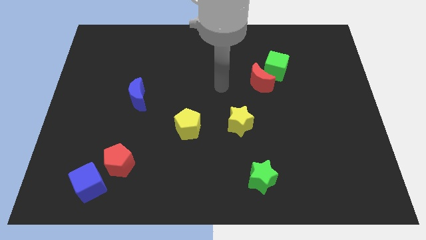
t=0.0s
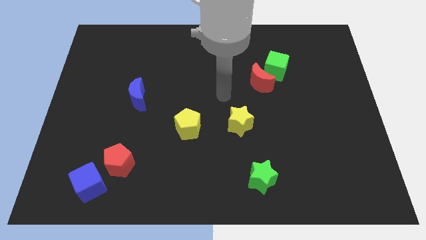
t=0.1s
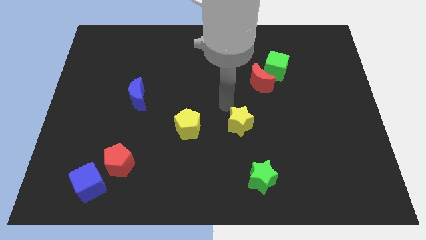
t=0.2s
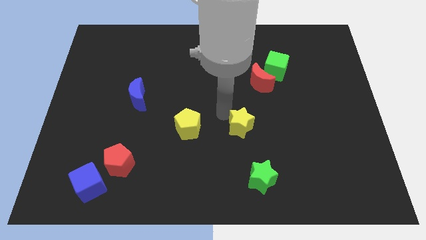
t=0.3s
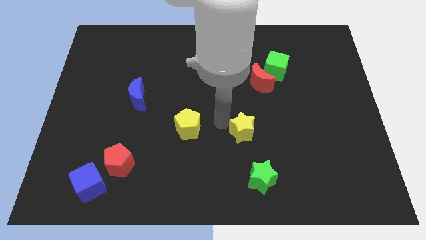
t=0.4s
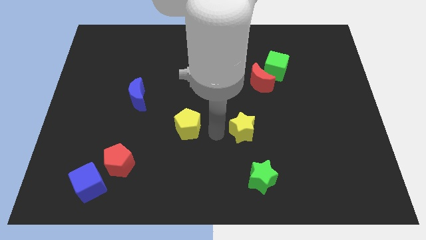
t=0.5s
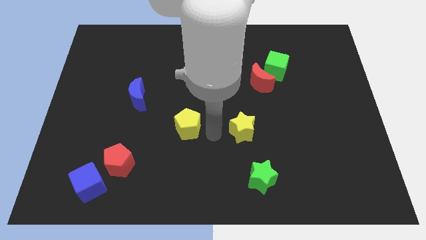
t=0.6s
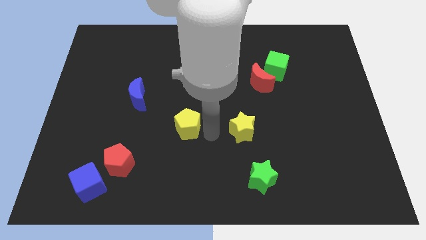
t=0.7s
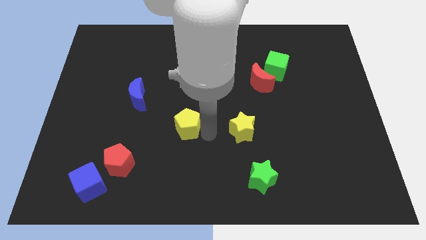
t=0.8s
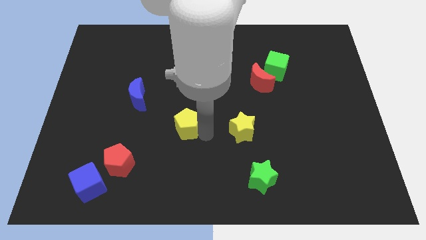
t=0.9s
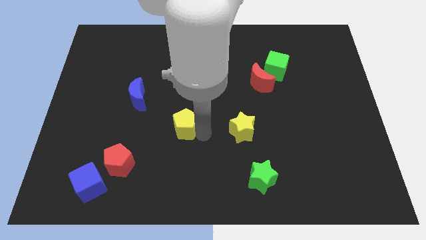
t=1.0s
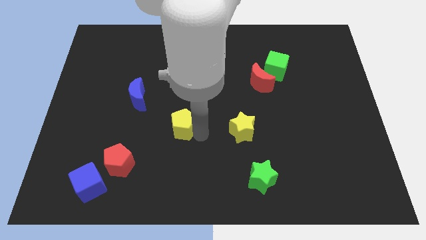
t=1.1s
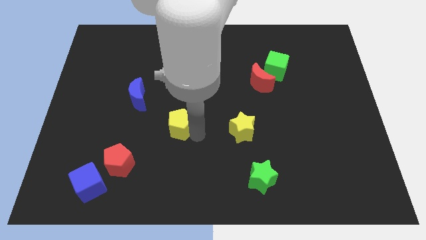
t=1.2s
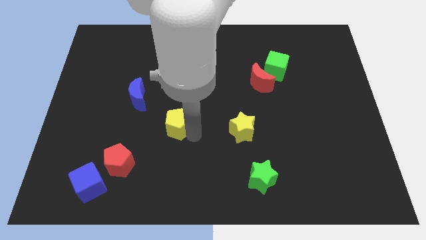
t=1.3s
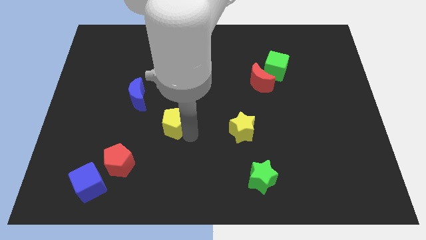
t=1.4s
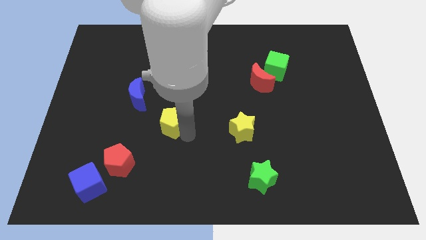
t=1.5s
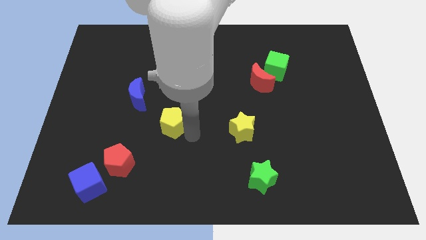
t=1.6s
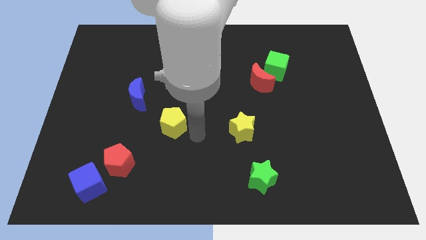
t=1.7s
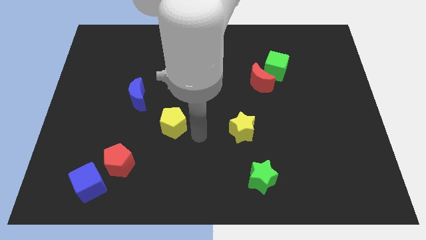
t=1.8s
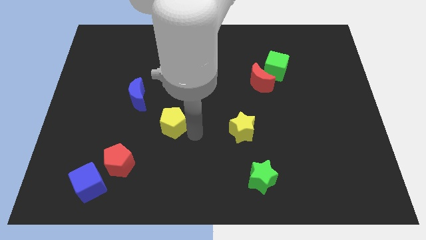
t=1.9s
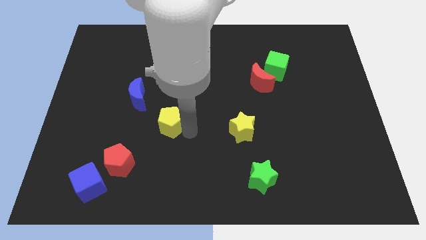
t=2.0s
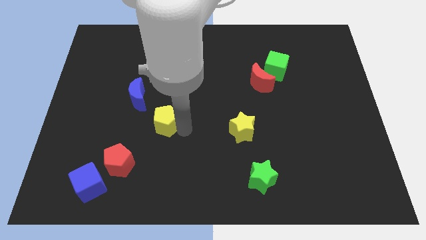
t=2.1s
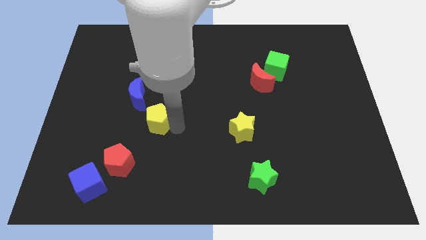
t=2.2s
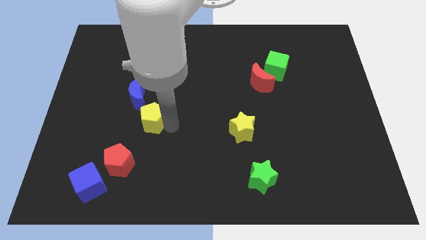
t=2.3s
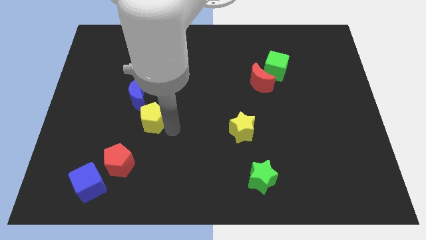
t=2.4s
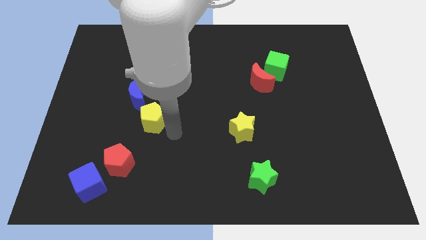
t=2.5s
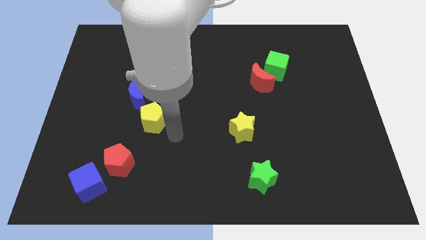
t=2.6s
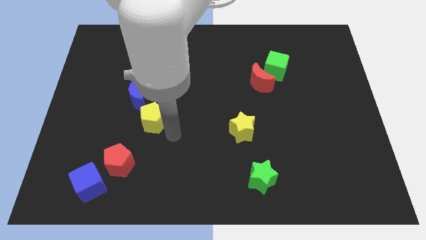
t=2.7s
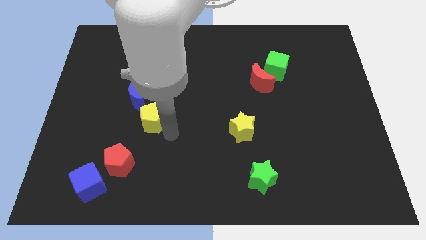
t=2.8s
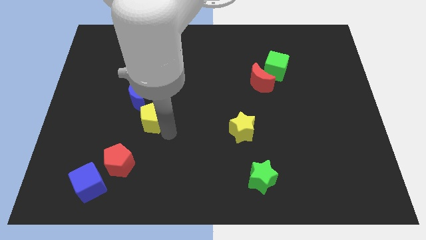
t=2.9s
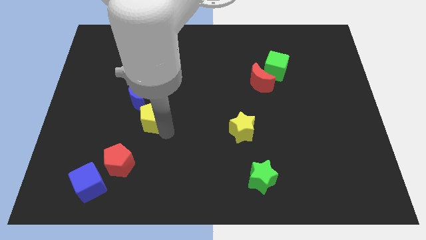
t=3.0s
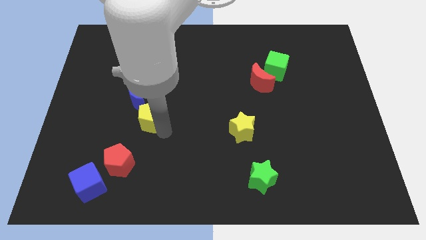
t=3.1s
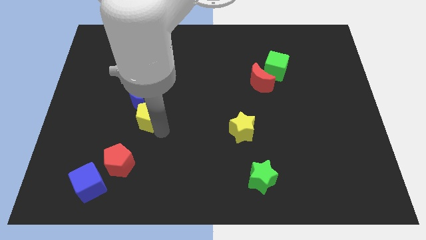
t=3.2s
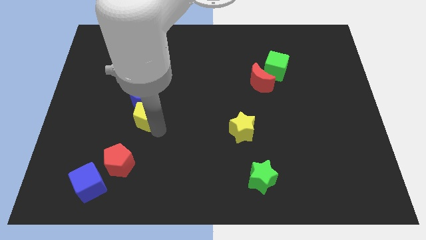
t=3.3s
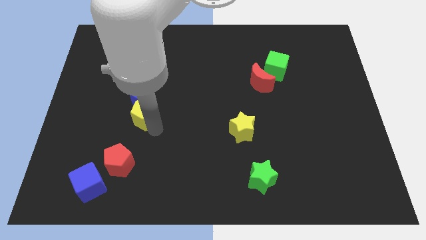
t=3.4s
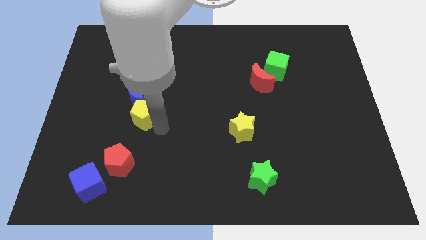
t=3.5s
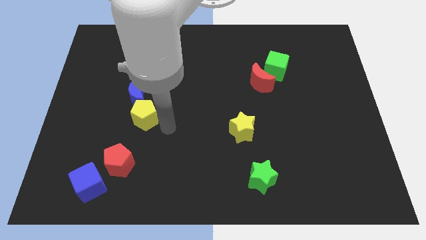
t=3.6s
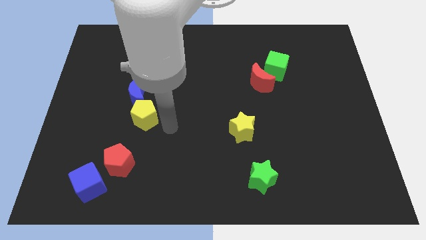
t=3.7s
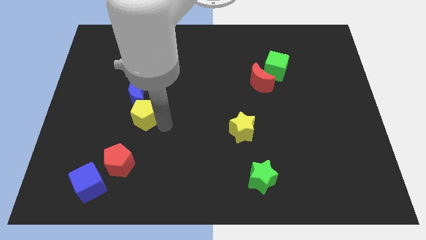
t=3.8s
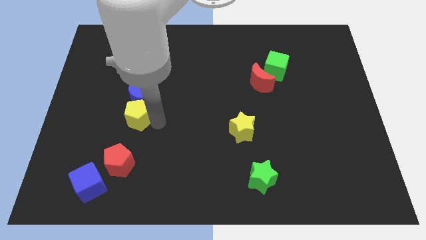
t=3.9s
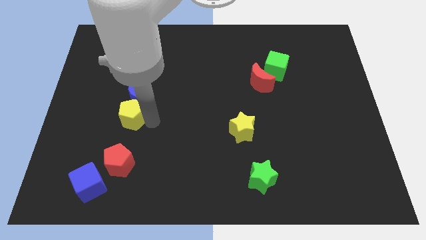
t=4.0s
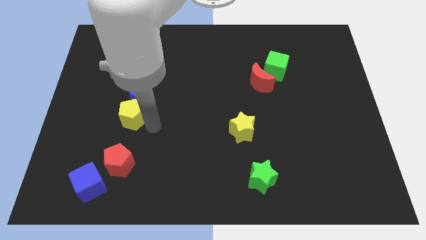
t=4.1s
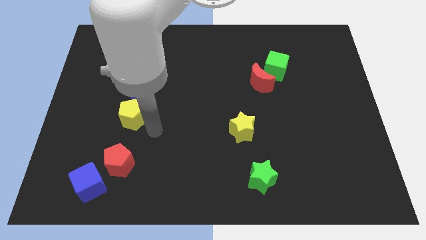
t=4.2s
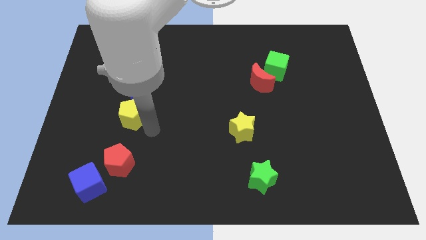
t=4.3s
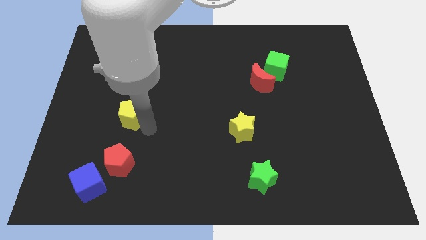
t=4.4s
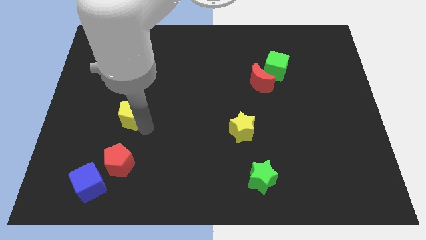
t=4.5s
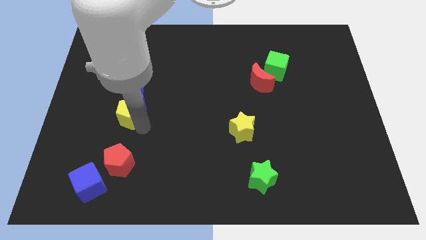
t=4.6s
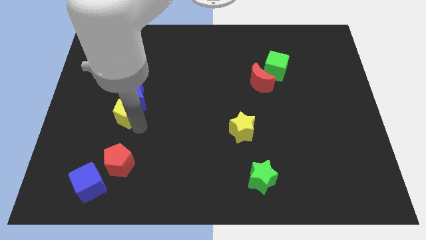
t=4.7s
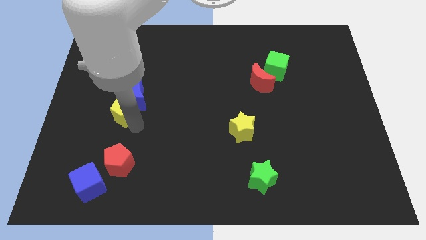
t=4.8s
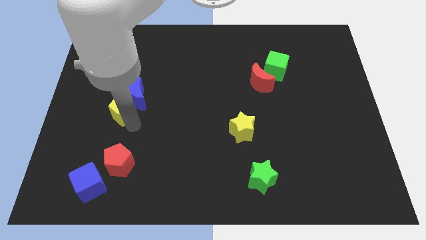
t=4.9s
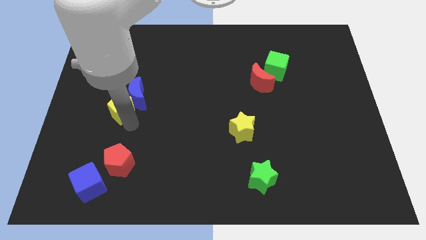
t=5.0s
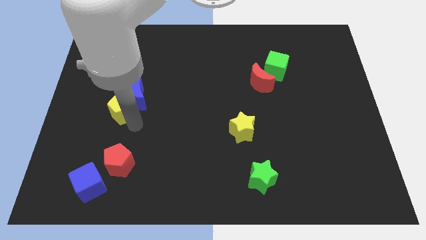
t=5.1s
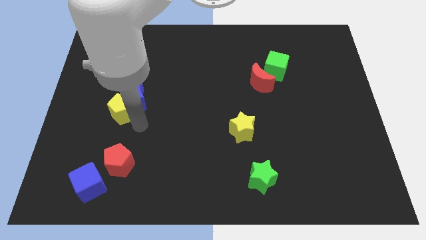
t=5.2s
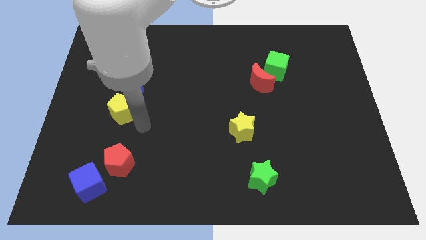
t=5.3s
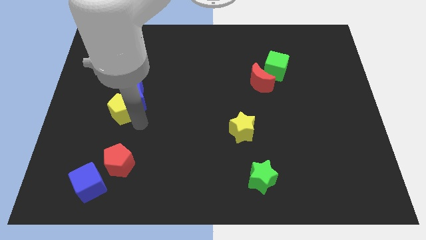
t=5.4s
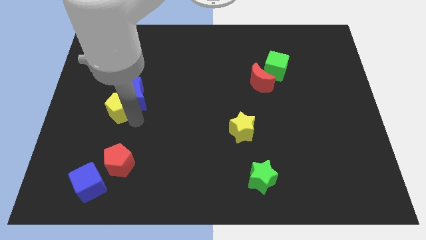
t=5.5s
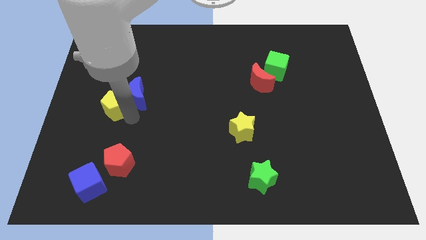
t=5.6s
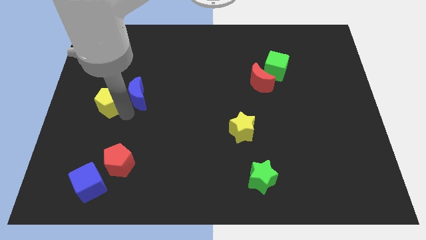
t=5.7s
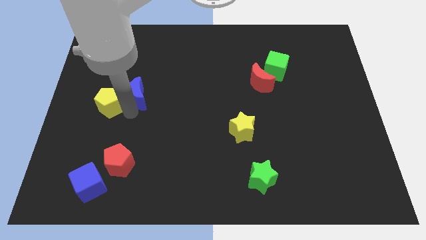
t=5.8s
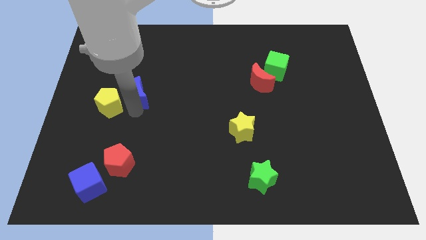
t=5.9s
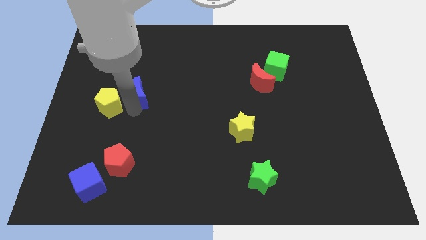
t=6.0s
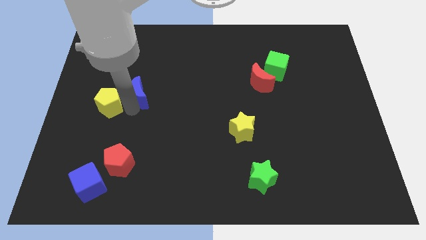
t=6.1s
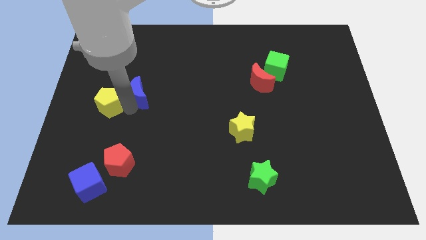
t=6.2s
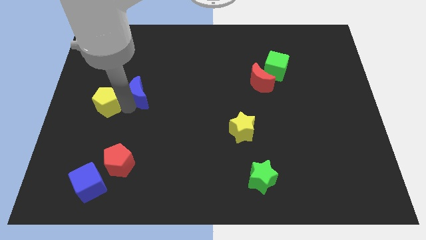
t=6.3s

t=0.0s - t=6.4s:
push the yellow pentagon to the left side of the board
